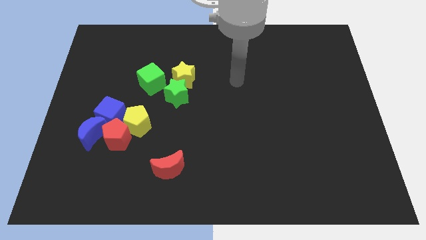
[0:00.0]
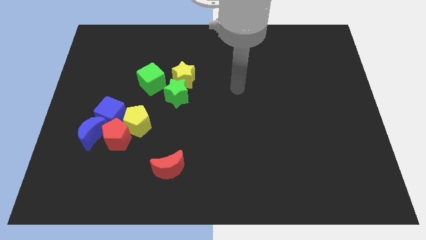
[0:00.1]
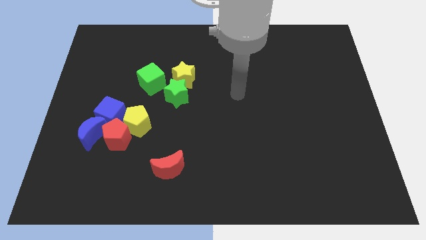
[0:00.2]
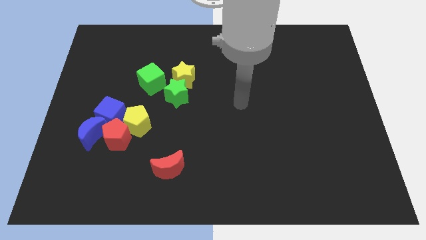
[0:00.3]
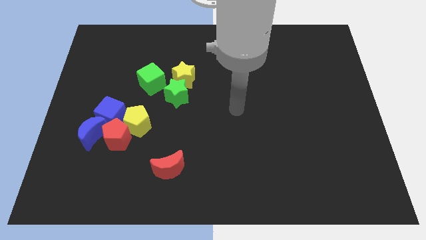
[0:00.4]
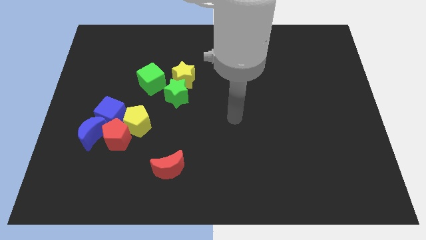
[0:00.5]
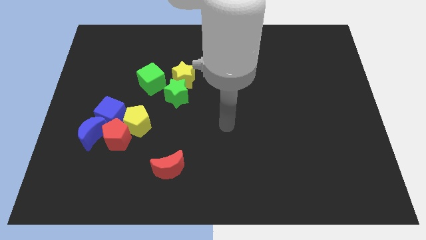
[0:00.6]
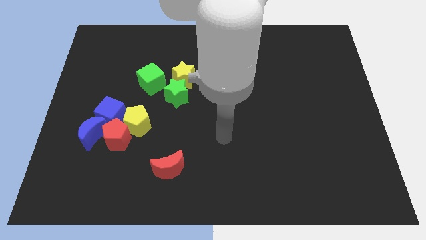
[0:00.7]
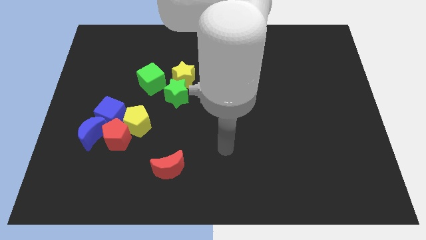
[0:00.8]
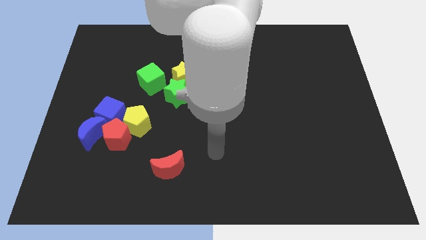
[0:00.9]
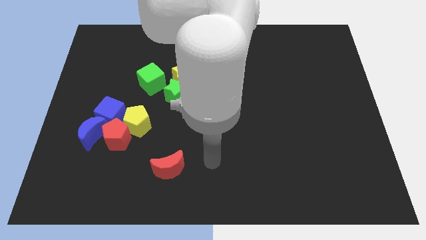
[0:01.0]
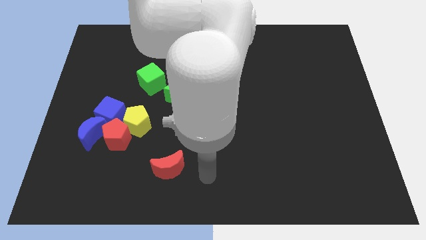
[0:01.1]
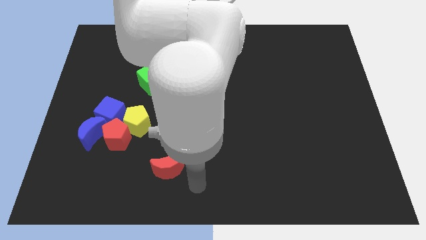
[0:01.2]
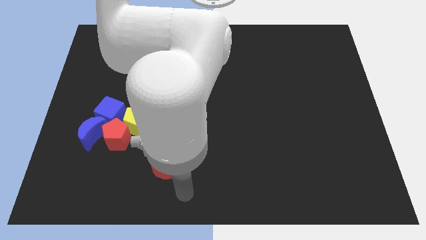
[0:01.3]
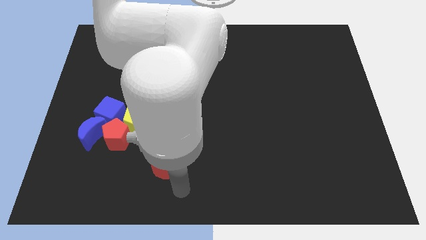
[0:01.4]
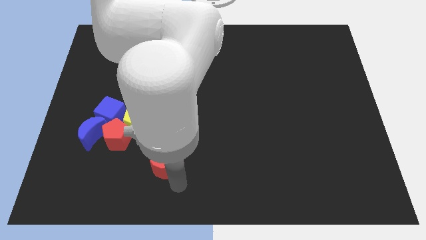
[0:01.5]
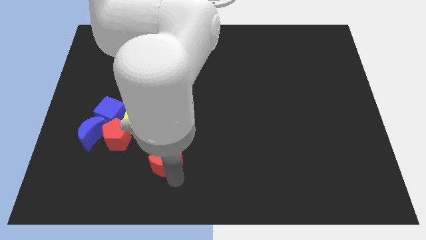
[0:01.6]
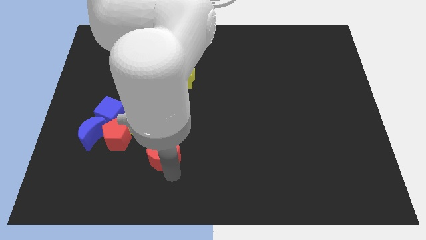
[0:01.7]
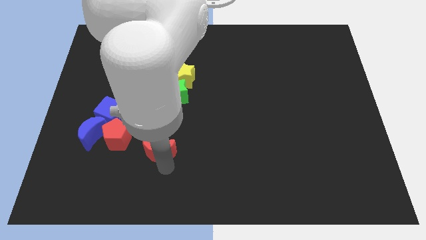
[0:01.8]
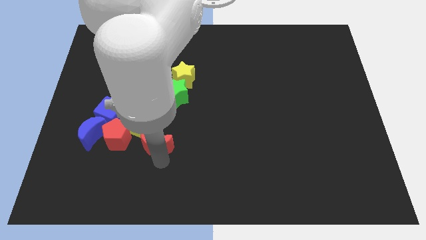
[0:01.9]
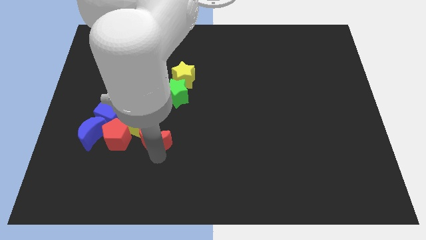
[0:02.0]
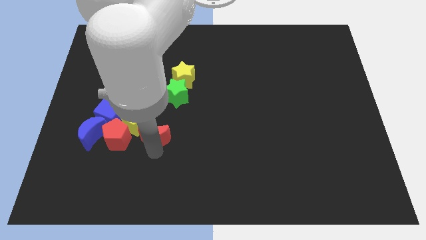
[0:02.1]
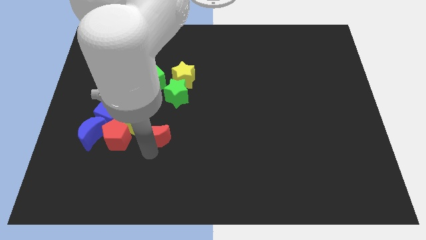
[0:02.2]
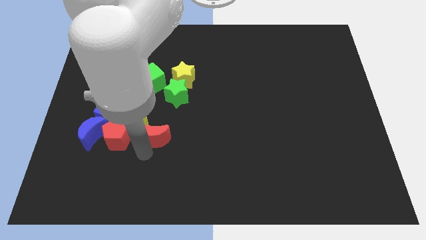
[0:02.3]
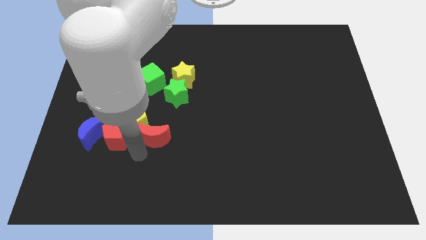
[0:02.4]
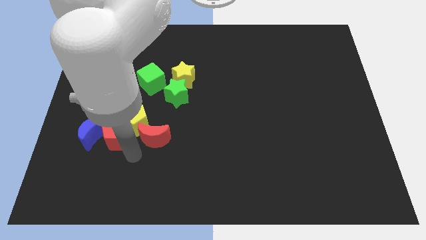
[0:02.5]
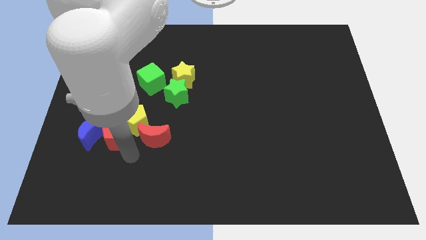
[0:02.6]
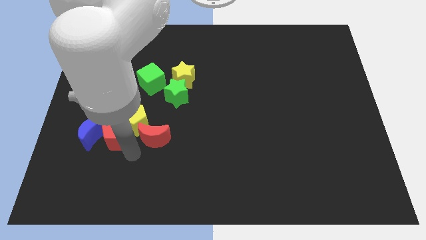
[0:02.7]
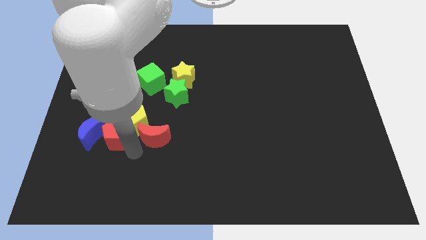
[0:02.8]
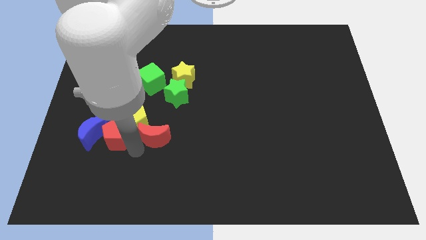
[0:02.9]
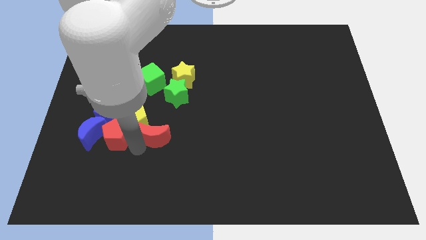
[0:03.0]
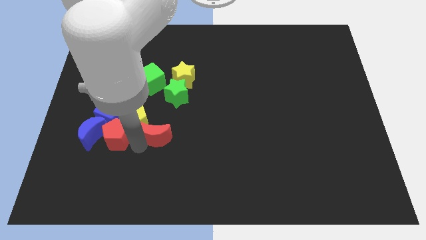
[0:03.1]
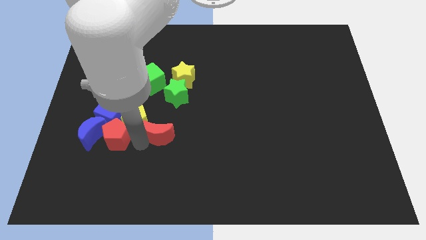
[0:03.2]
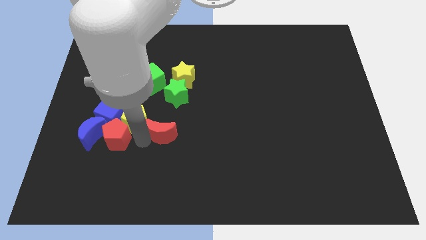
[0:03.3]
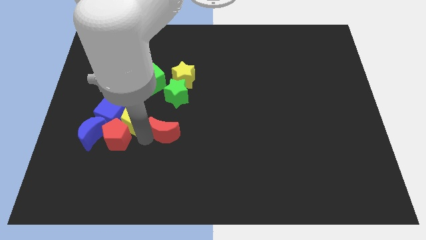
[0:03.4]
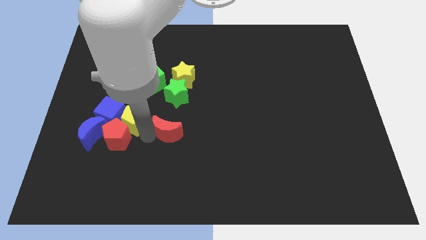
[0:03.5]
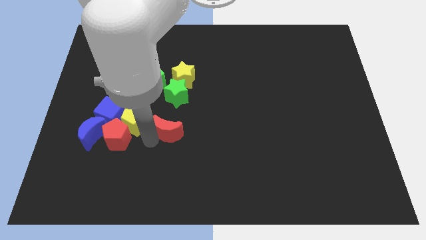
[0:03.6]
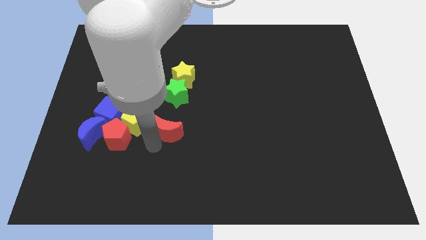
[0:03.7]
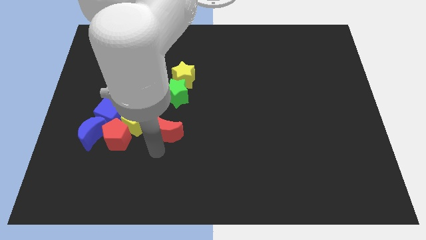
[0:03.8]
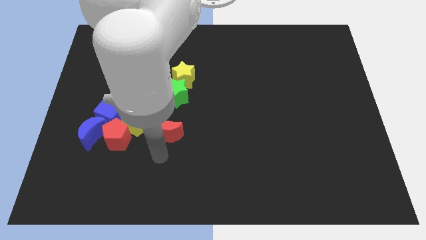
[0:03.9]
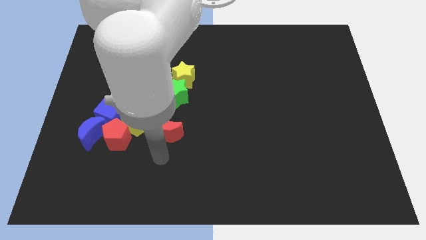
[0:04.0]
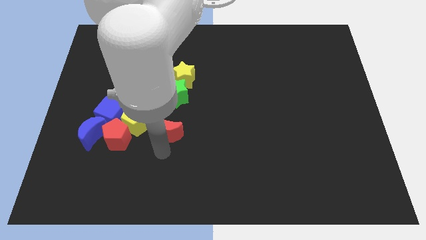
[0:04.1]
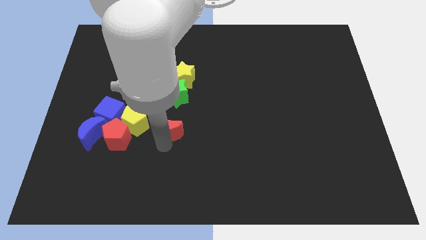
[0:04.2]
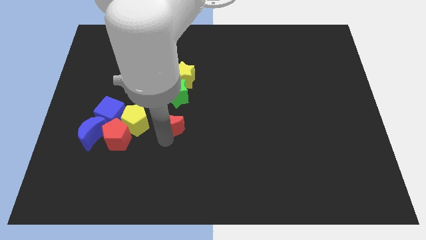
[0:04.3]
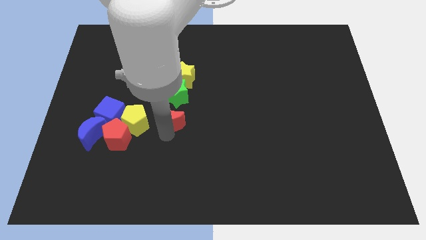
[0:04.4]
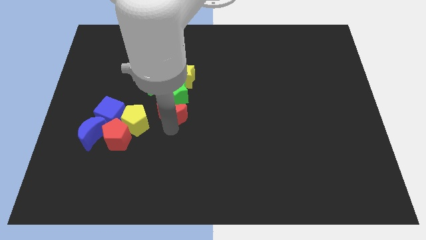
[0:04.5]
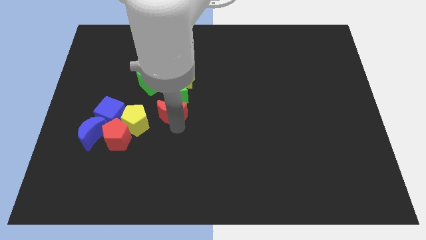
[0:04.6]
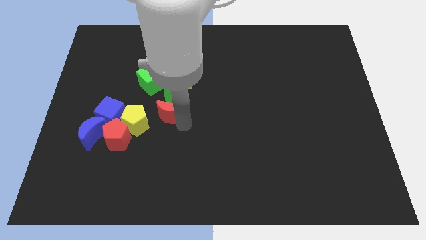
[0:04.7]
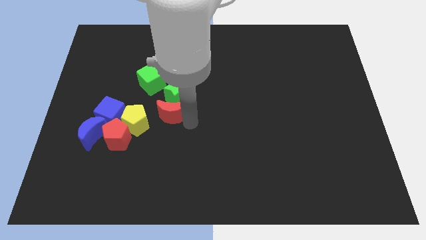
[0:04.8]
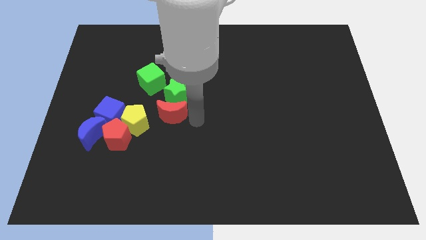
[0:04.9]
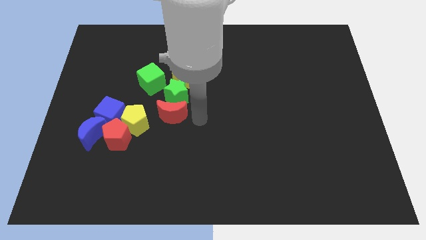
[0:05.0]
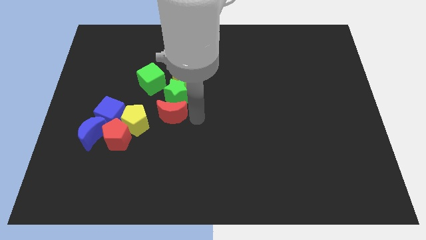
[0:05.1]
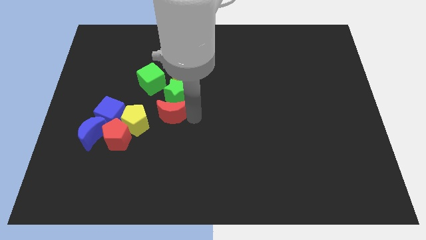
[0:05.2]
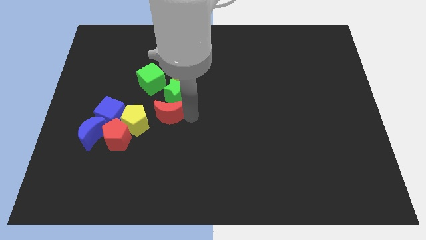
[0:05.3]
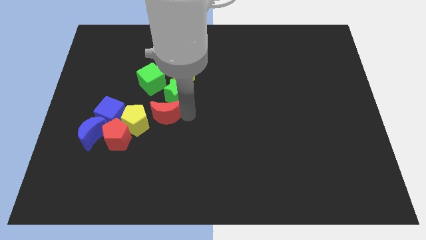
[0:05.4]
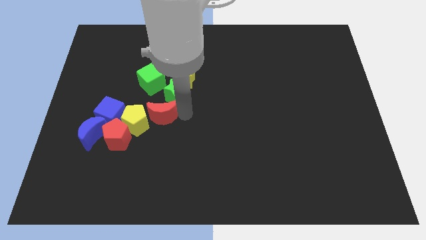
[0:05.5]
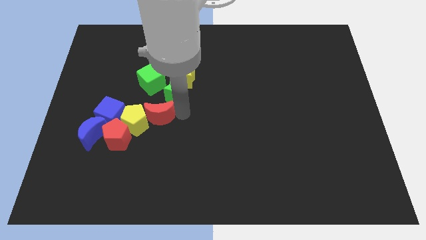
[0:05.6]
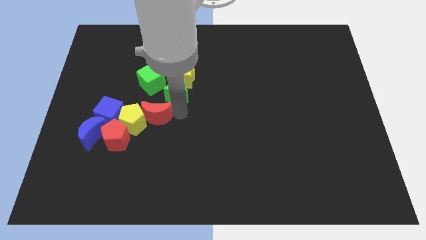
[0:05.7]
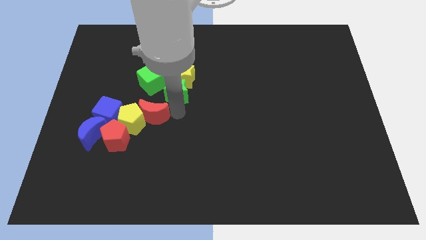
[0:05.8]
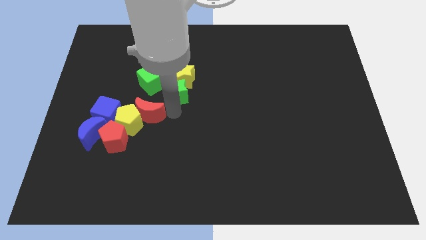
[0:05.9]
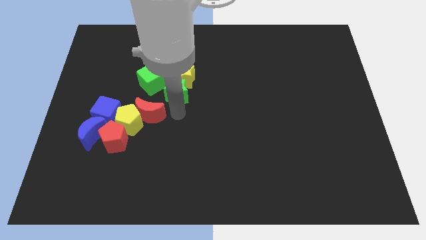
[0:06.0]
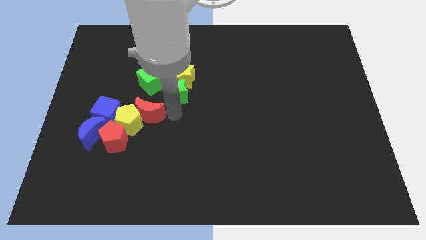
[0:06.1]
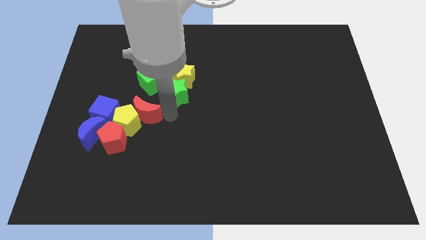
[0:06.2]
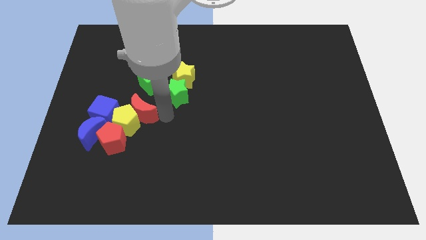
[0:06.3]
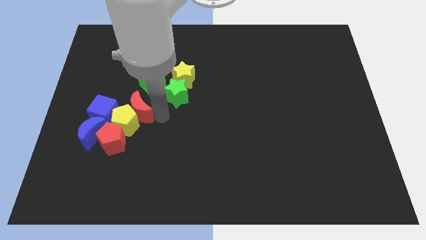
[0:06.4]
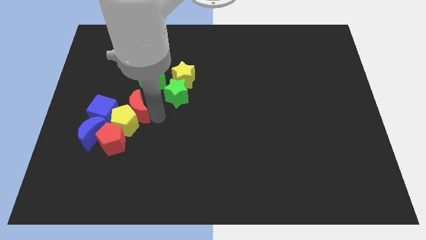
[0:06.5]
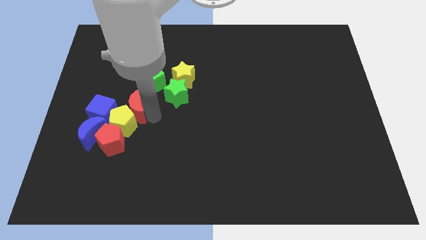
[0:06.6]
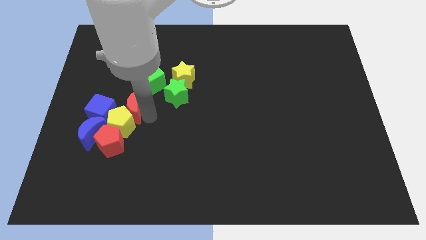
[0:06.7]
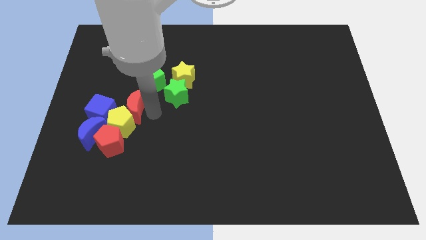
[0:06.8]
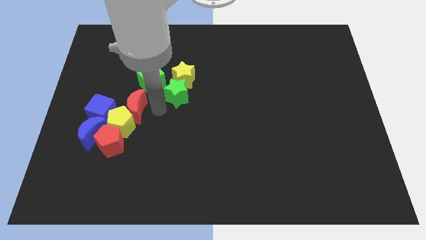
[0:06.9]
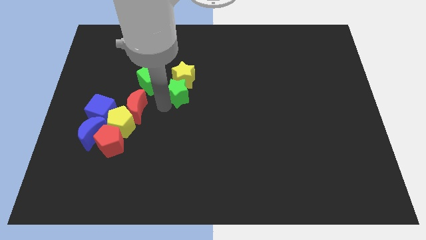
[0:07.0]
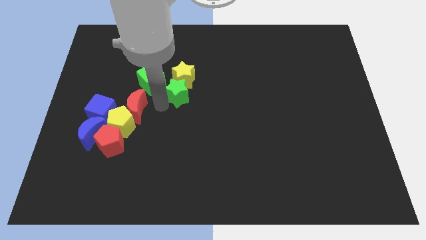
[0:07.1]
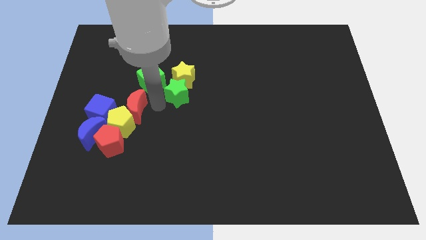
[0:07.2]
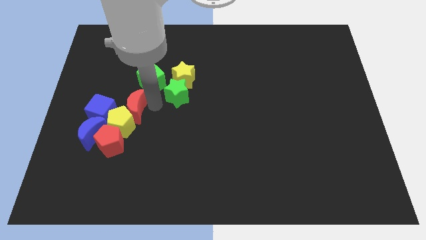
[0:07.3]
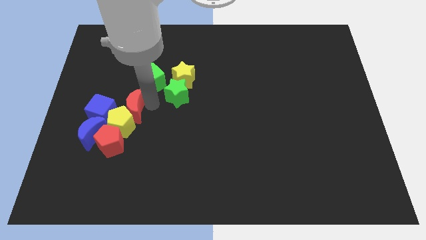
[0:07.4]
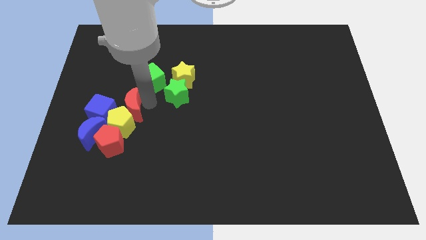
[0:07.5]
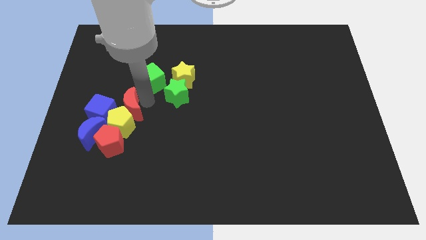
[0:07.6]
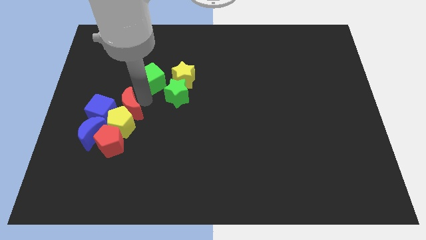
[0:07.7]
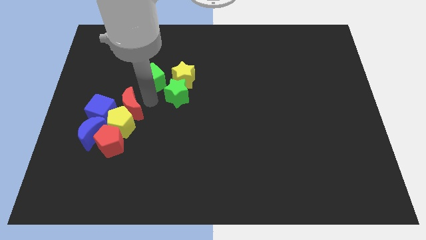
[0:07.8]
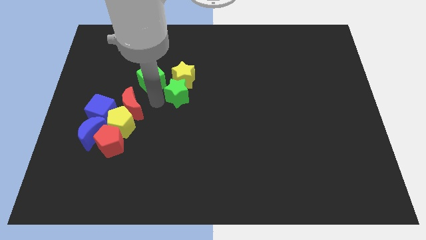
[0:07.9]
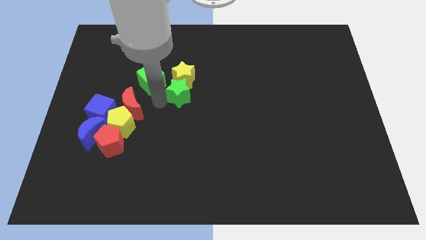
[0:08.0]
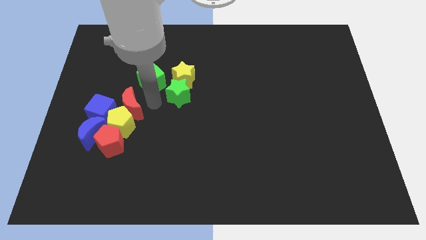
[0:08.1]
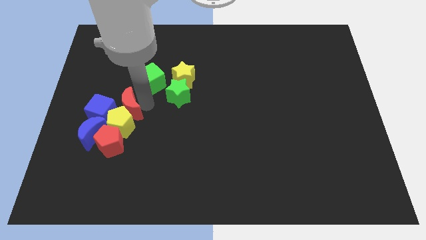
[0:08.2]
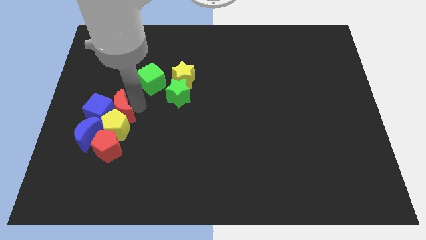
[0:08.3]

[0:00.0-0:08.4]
move the red moon to the blue cube
